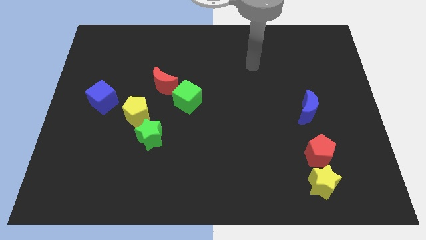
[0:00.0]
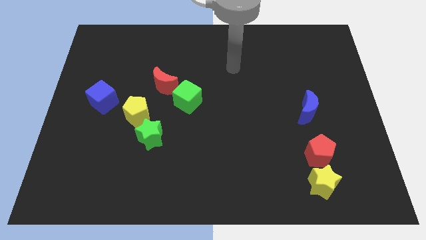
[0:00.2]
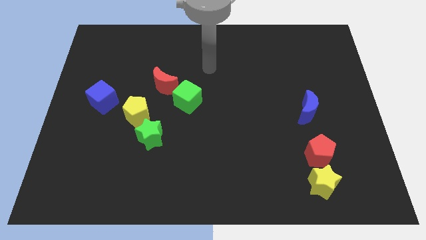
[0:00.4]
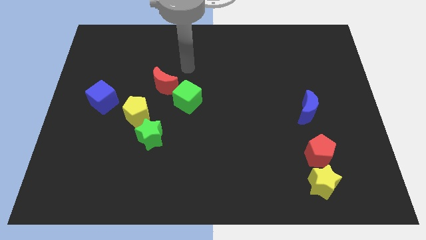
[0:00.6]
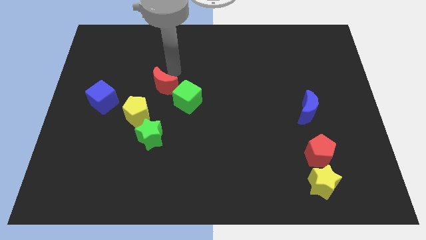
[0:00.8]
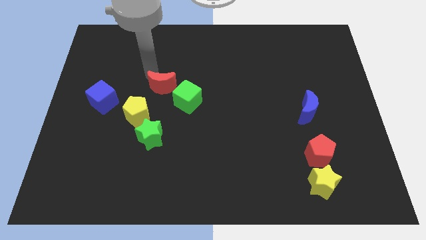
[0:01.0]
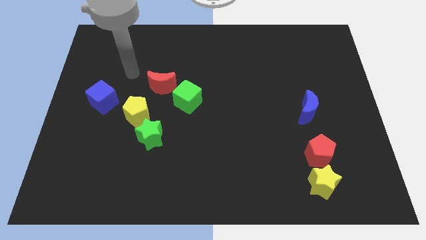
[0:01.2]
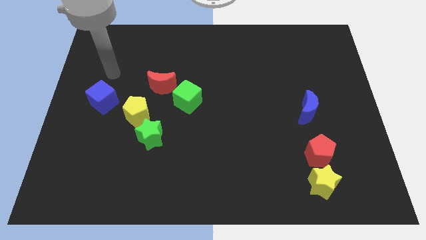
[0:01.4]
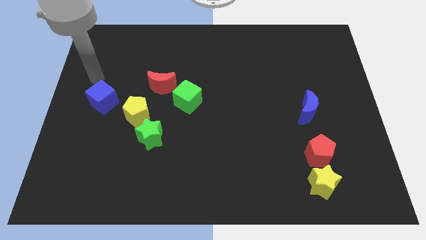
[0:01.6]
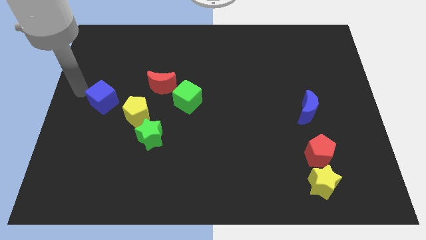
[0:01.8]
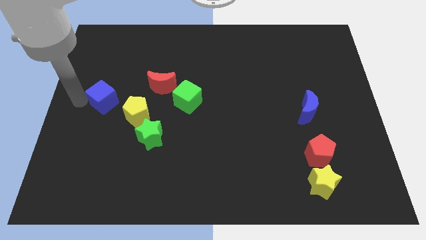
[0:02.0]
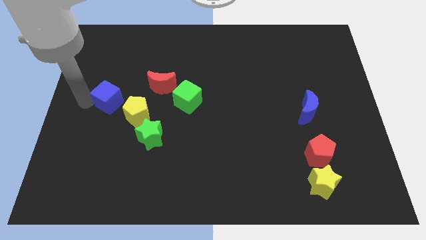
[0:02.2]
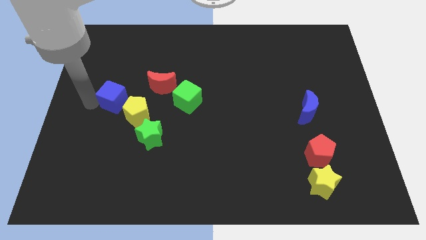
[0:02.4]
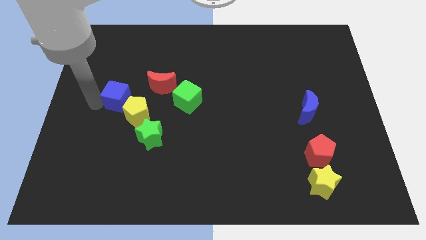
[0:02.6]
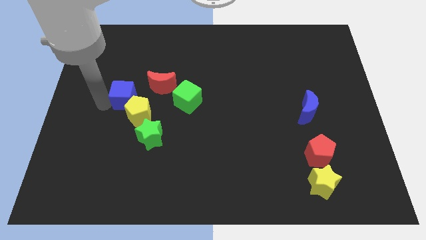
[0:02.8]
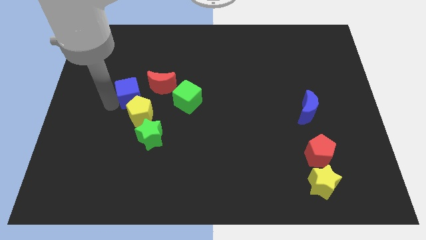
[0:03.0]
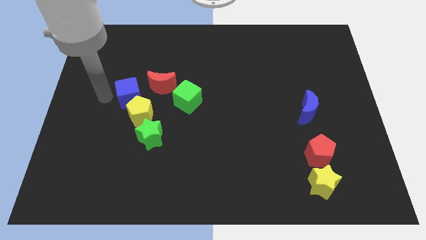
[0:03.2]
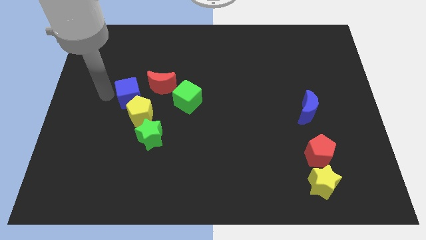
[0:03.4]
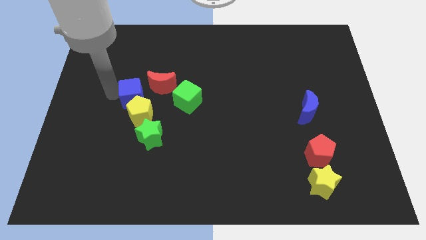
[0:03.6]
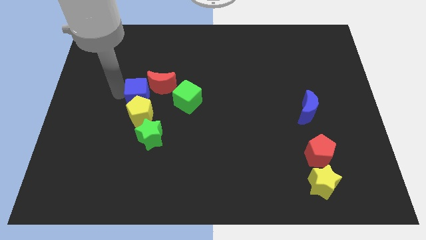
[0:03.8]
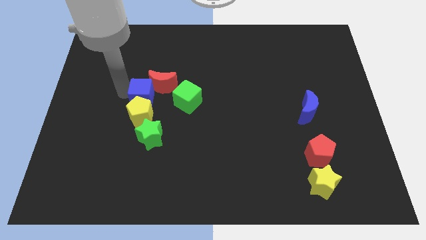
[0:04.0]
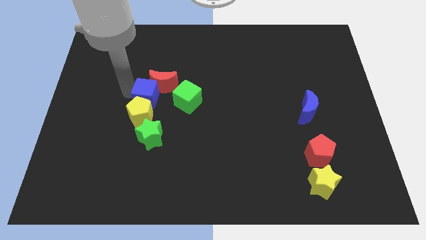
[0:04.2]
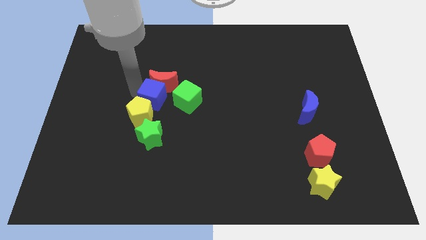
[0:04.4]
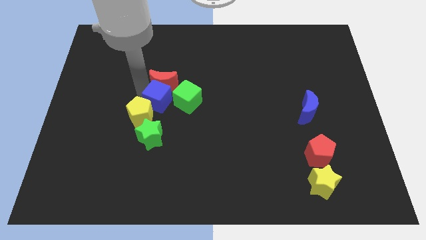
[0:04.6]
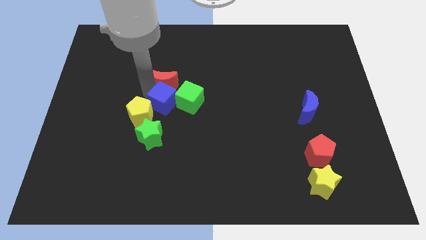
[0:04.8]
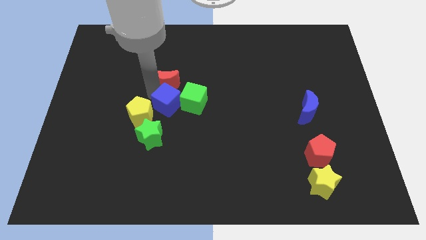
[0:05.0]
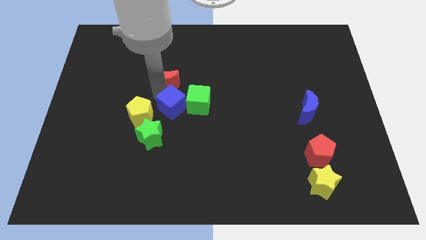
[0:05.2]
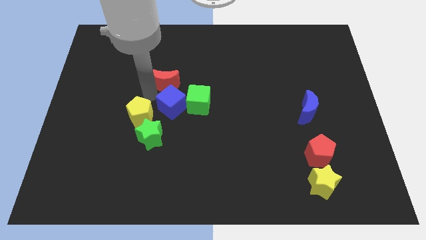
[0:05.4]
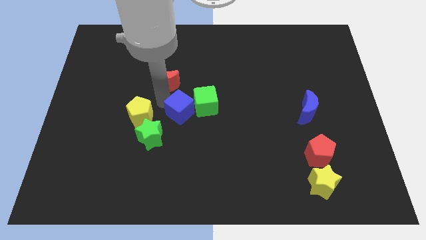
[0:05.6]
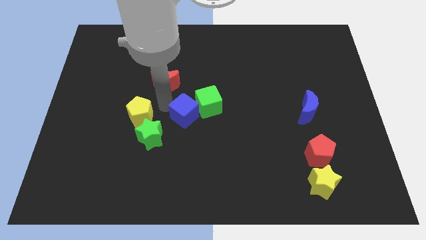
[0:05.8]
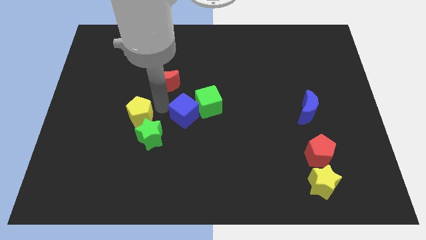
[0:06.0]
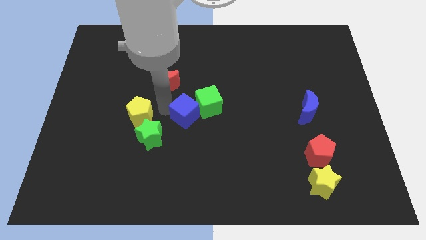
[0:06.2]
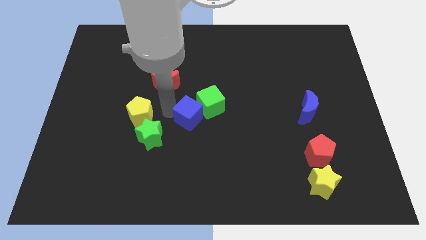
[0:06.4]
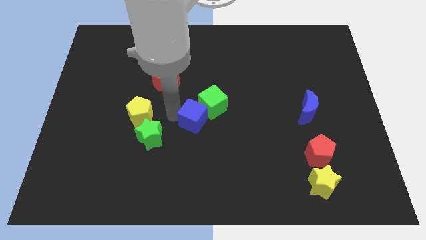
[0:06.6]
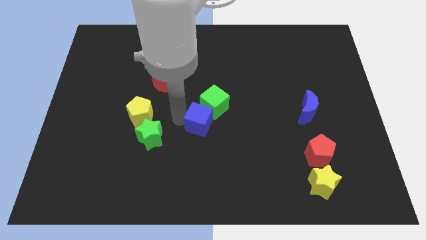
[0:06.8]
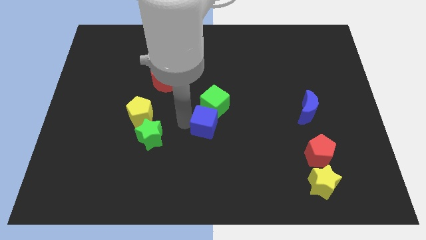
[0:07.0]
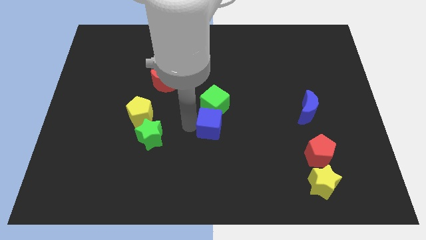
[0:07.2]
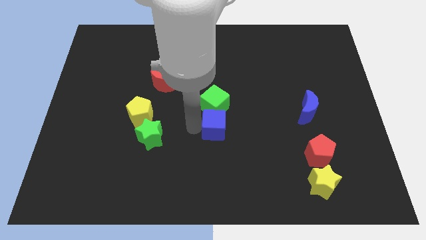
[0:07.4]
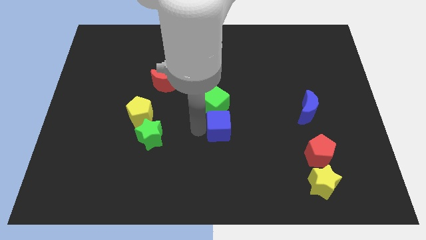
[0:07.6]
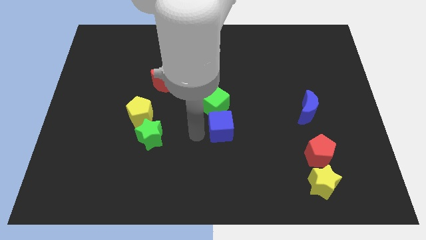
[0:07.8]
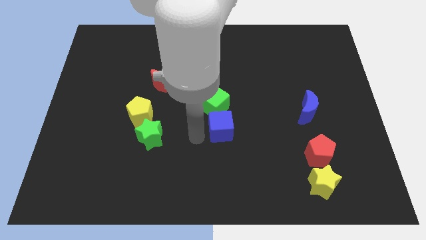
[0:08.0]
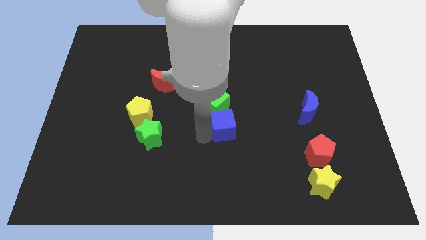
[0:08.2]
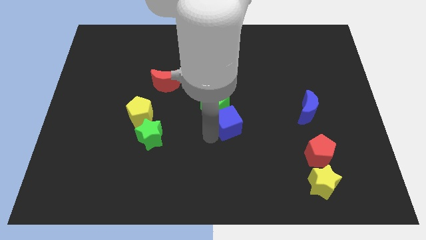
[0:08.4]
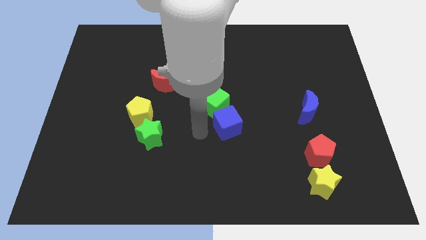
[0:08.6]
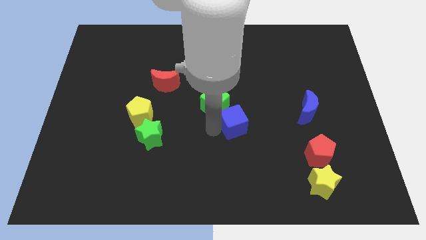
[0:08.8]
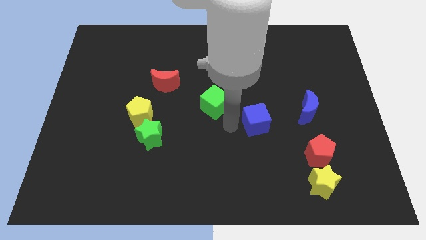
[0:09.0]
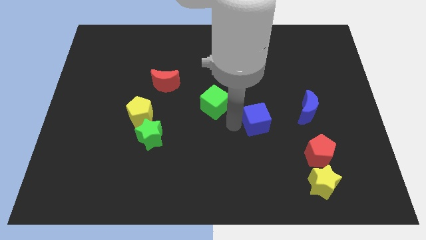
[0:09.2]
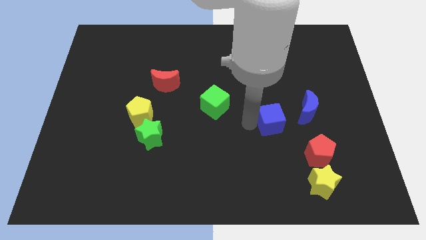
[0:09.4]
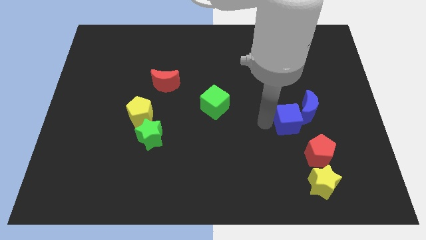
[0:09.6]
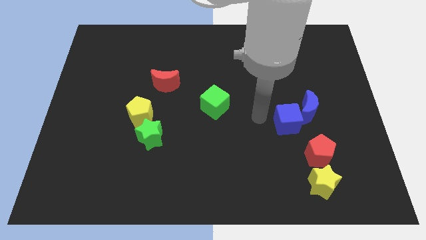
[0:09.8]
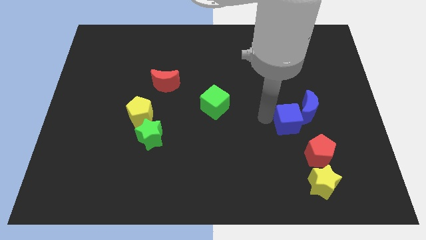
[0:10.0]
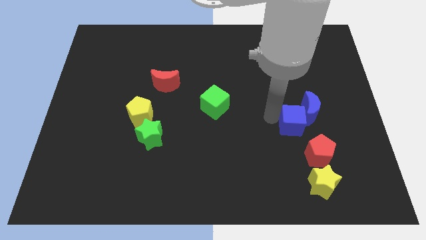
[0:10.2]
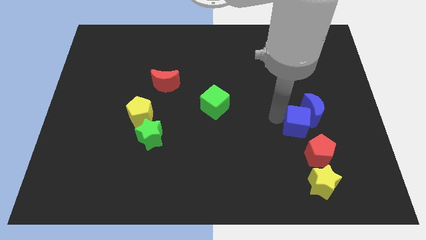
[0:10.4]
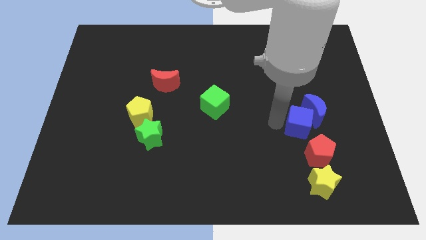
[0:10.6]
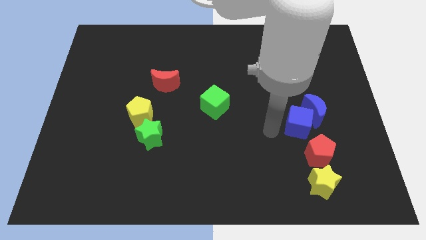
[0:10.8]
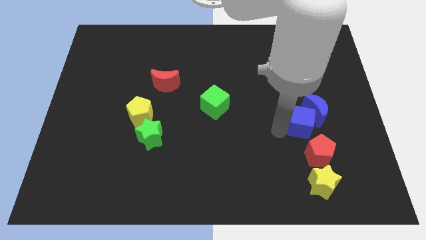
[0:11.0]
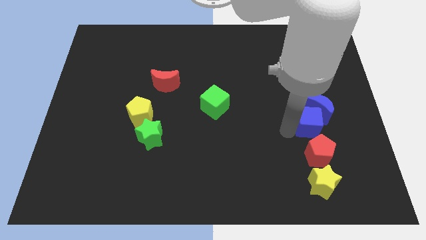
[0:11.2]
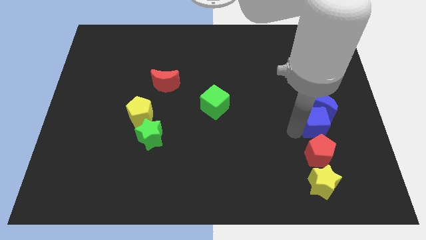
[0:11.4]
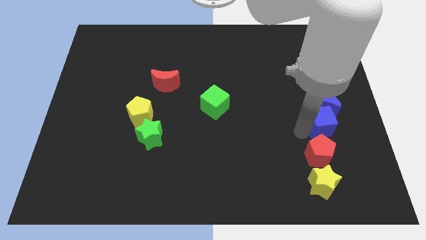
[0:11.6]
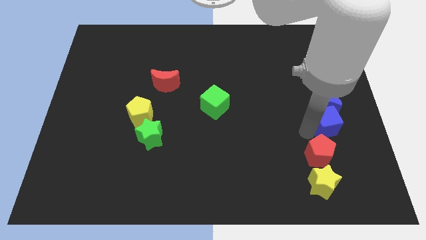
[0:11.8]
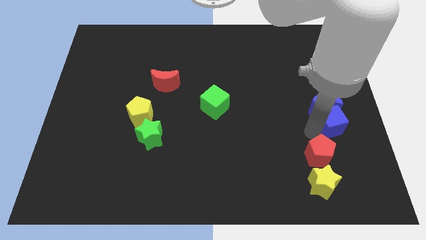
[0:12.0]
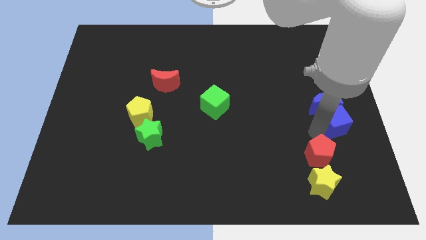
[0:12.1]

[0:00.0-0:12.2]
put the blue cube to the right side
